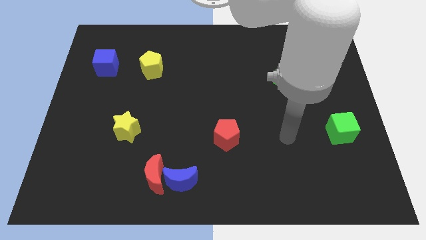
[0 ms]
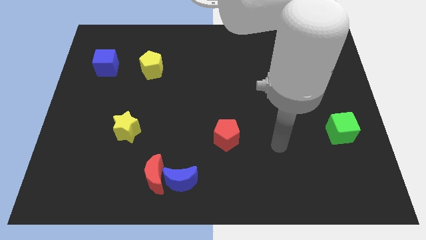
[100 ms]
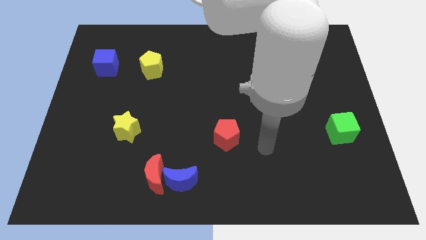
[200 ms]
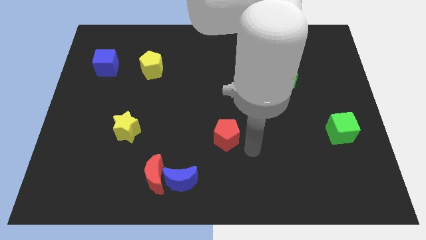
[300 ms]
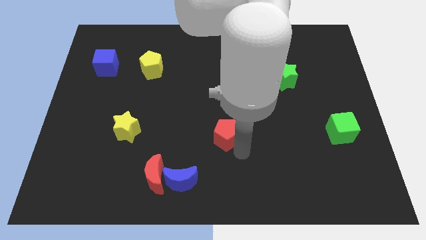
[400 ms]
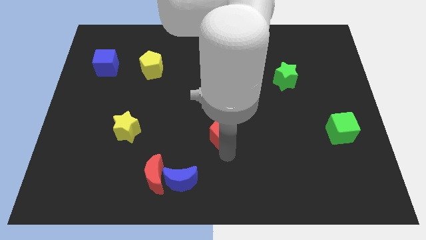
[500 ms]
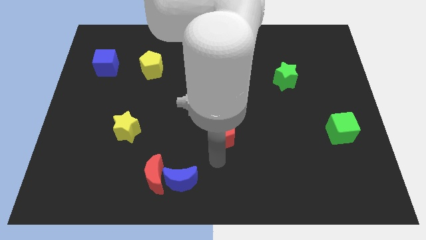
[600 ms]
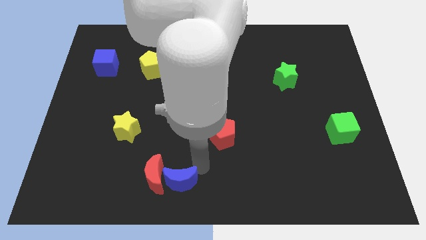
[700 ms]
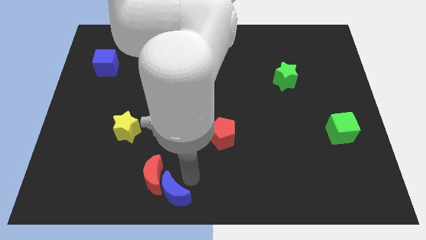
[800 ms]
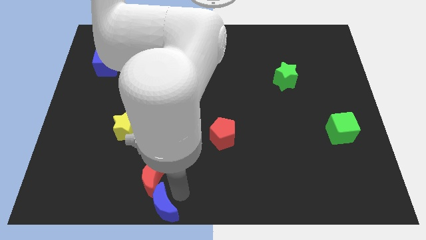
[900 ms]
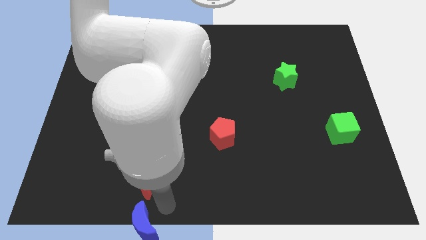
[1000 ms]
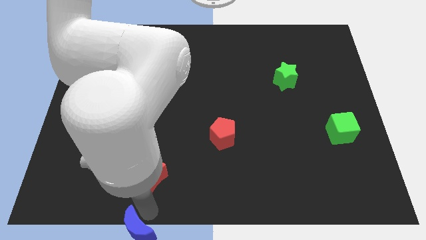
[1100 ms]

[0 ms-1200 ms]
separate the red moon from the blue moon

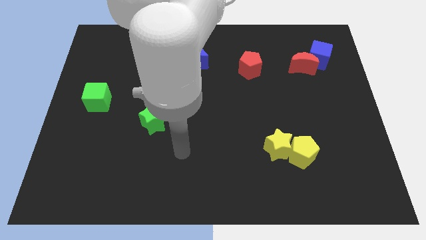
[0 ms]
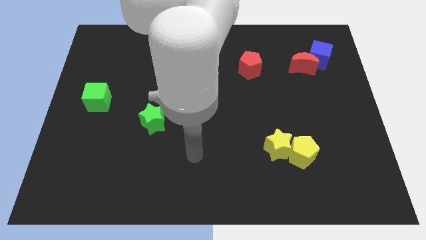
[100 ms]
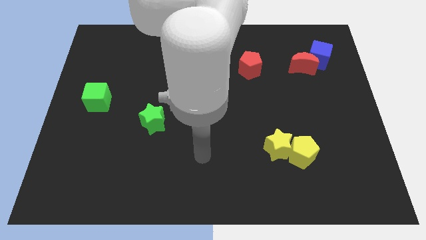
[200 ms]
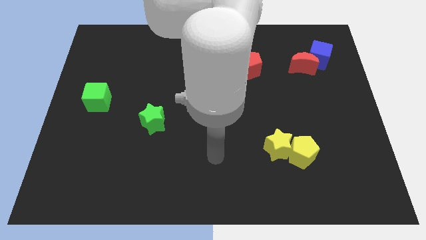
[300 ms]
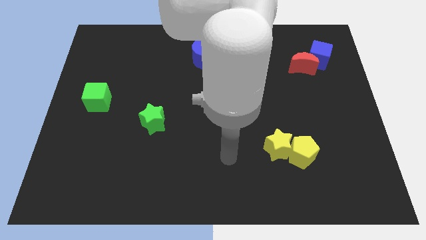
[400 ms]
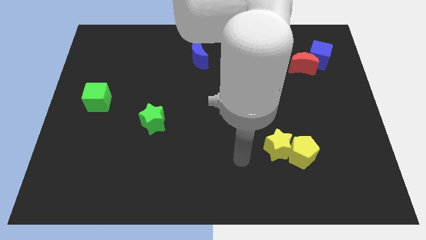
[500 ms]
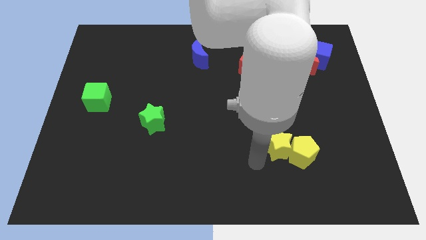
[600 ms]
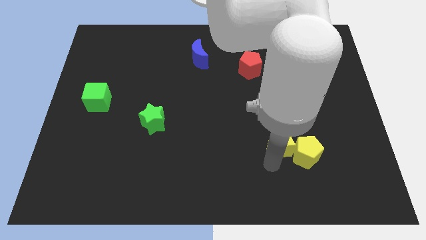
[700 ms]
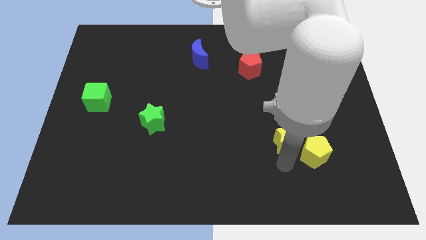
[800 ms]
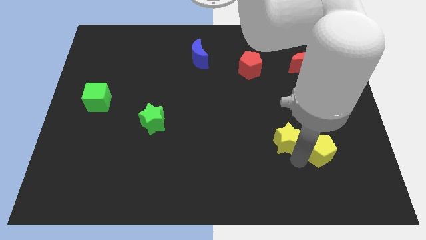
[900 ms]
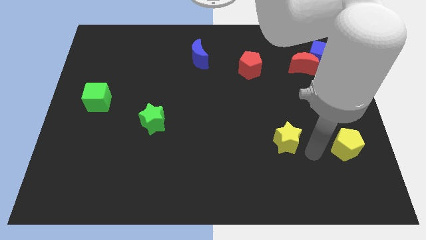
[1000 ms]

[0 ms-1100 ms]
pull the yellow star apart from the yellow pentagon

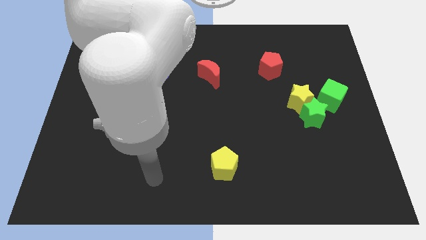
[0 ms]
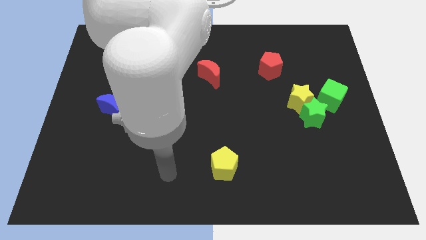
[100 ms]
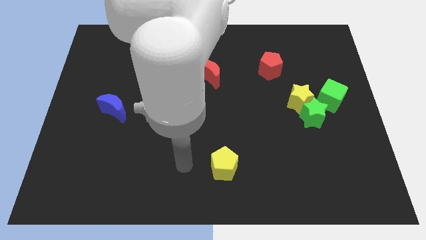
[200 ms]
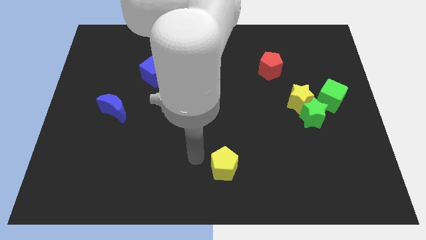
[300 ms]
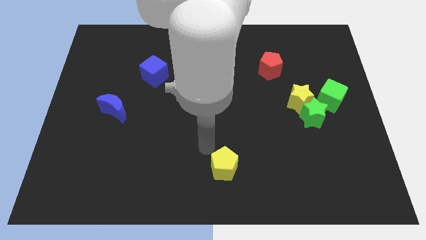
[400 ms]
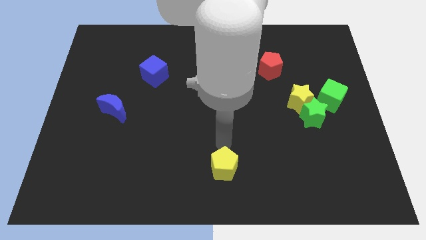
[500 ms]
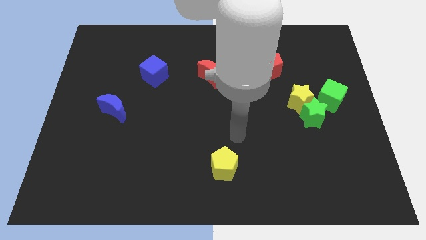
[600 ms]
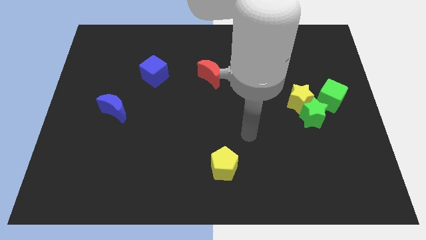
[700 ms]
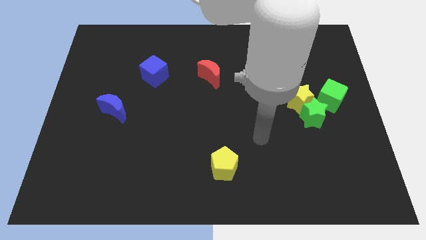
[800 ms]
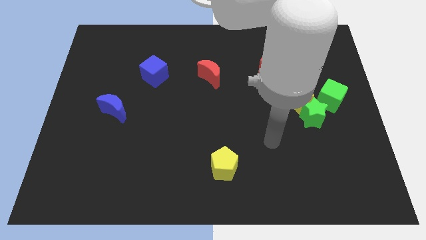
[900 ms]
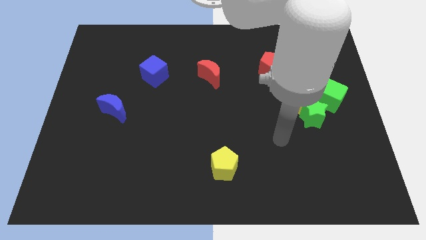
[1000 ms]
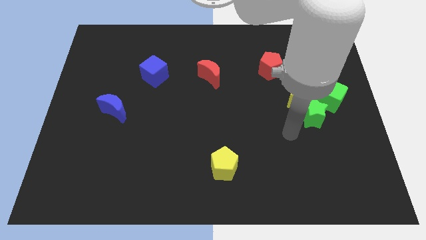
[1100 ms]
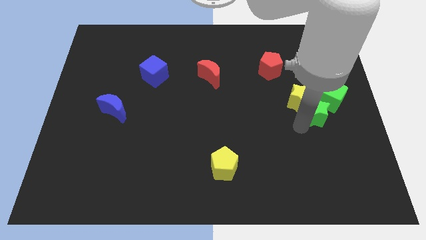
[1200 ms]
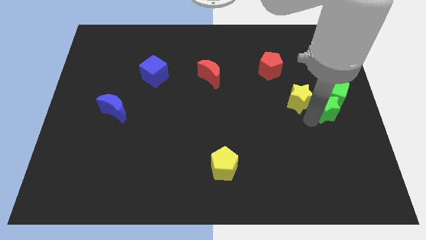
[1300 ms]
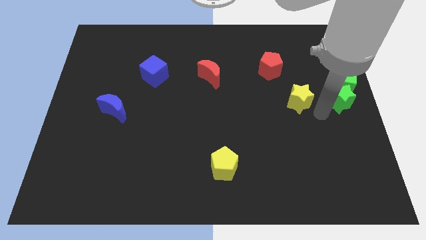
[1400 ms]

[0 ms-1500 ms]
pull the yellow star apart from the green star and green cube

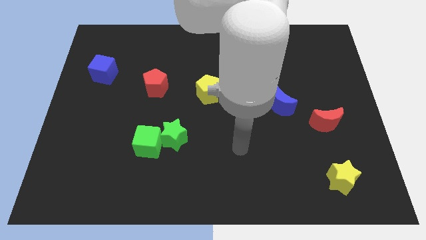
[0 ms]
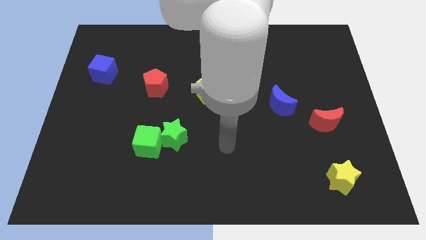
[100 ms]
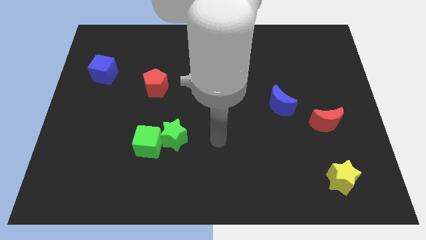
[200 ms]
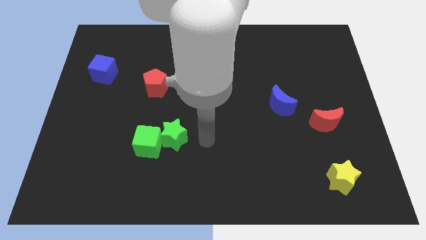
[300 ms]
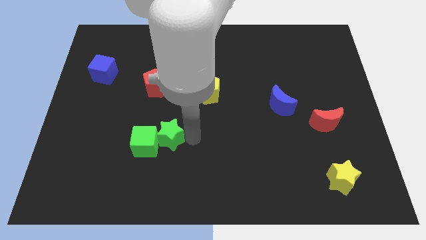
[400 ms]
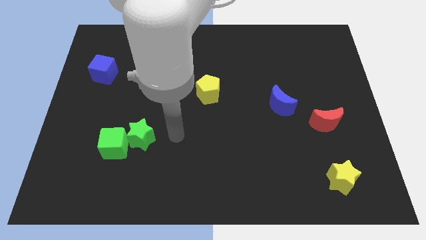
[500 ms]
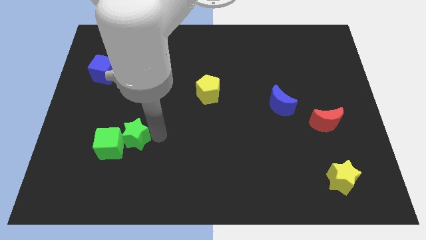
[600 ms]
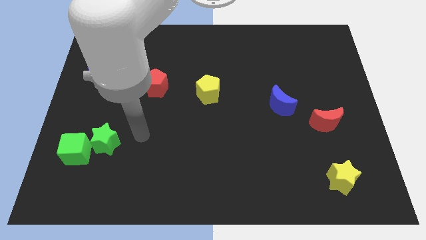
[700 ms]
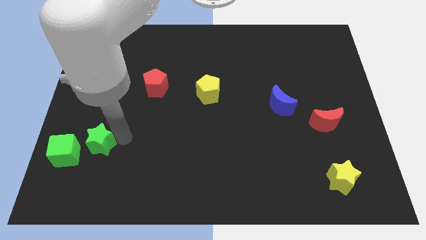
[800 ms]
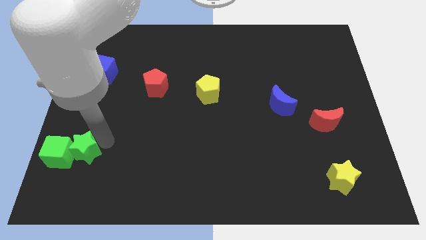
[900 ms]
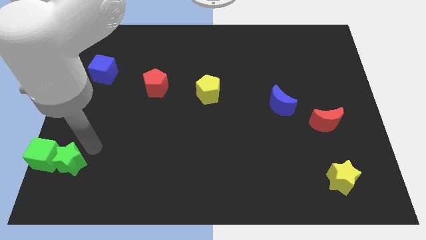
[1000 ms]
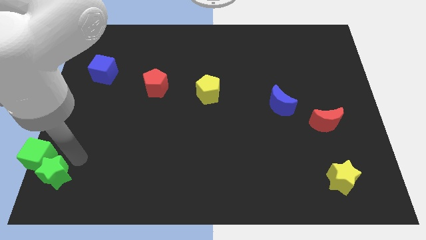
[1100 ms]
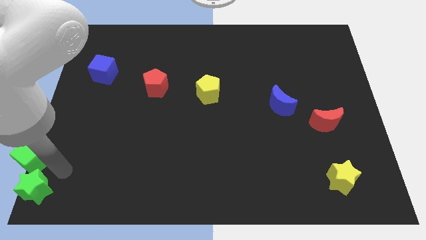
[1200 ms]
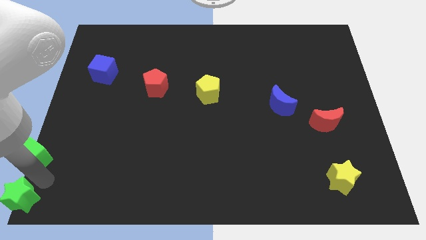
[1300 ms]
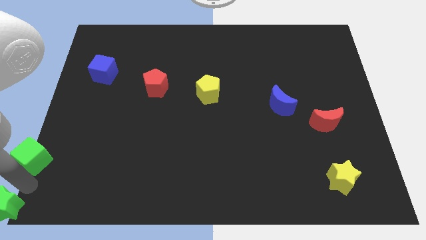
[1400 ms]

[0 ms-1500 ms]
separate the green cube from the green star

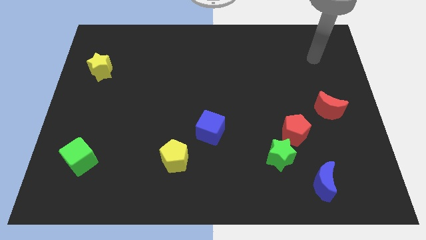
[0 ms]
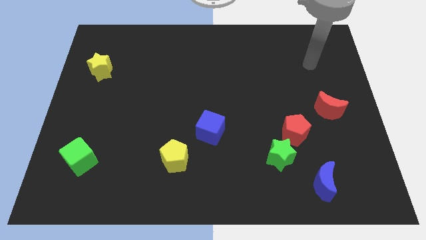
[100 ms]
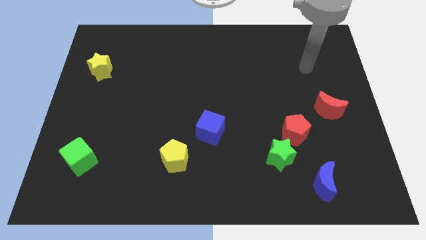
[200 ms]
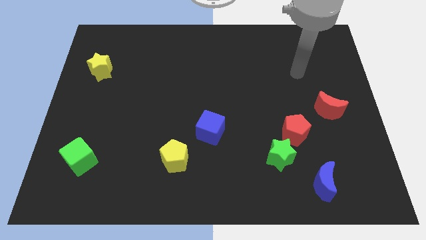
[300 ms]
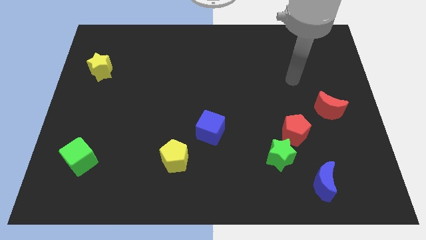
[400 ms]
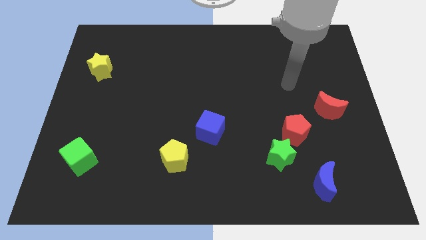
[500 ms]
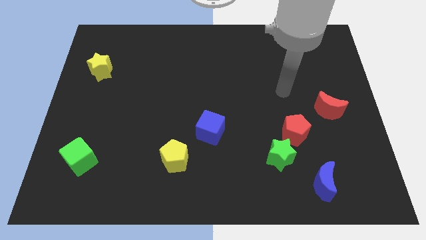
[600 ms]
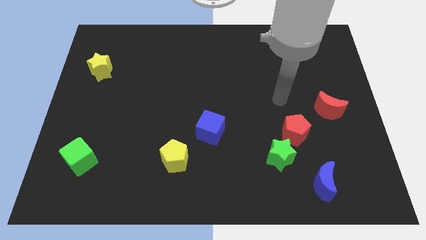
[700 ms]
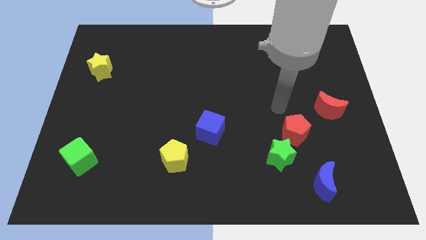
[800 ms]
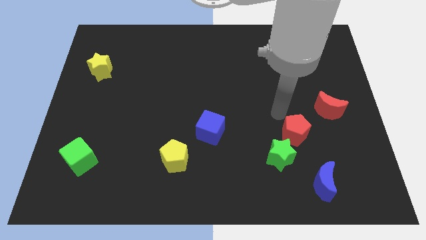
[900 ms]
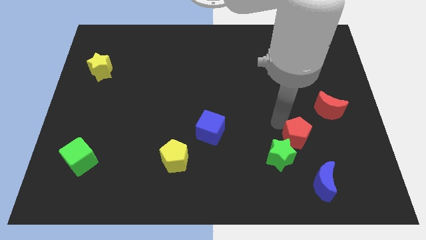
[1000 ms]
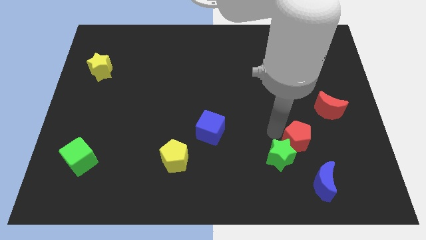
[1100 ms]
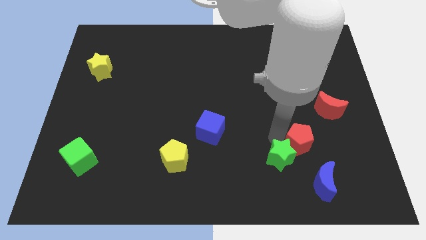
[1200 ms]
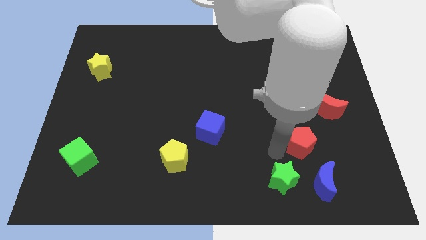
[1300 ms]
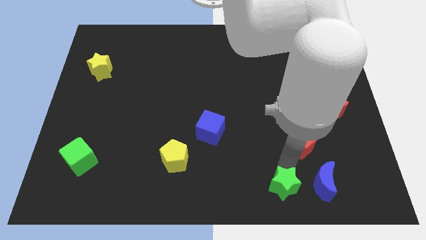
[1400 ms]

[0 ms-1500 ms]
separate the red pentagon from the green star

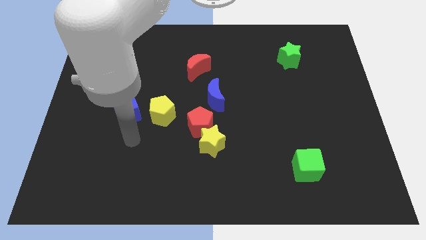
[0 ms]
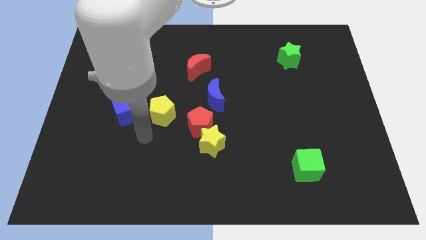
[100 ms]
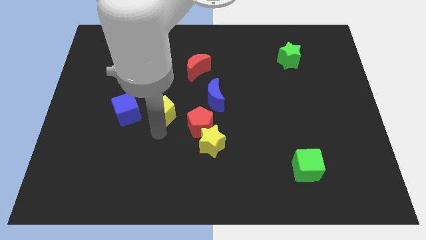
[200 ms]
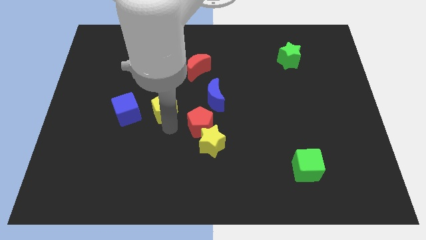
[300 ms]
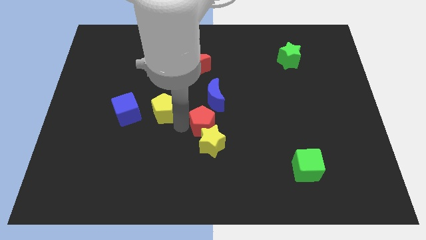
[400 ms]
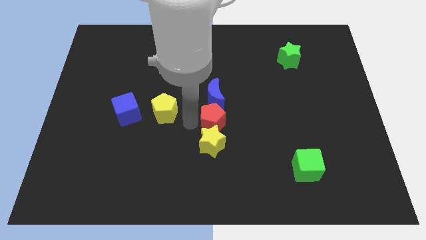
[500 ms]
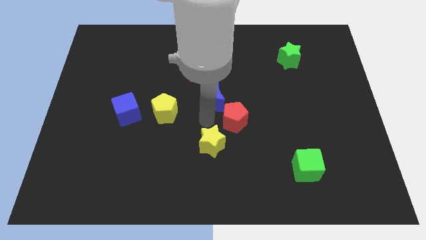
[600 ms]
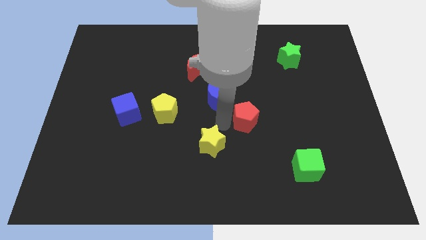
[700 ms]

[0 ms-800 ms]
separate the yellow star from the red pentagon

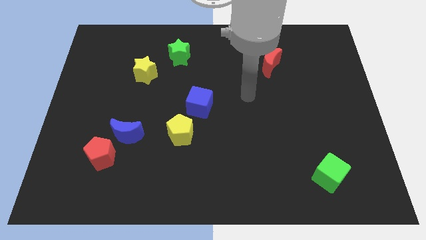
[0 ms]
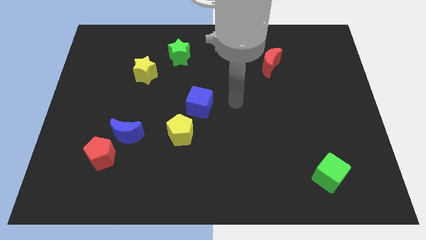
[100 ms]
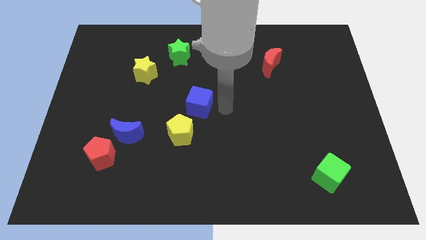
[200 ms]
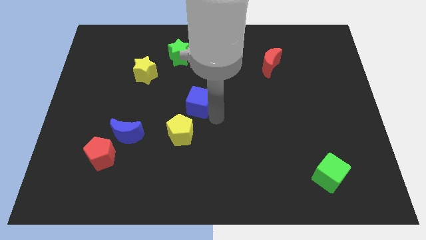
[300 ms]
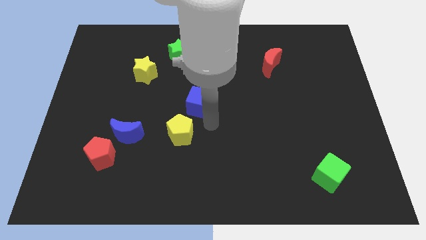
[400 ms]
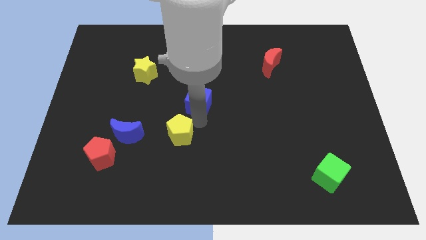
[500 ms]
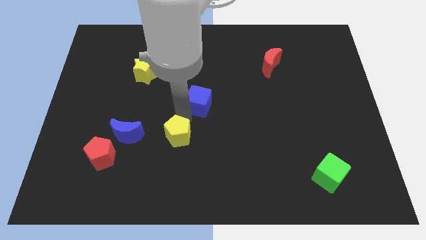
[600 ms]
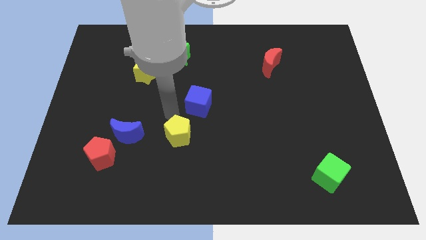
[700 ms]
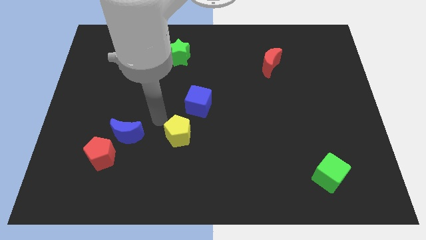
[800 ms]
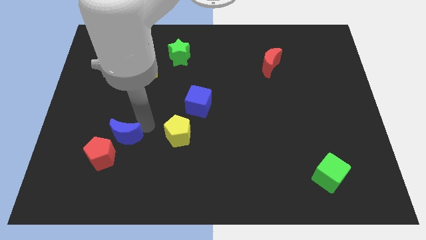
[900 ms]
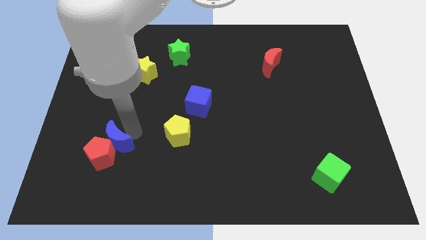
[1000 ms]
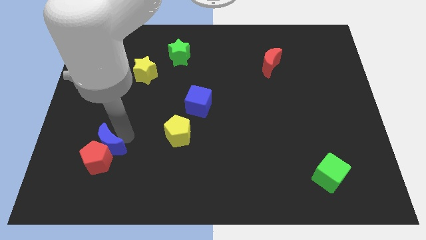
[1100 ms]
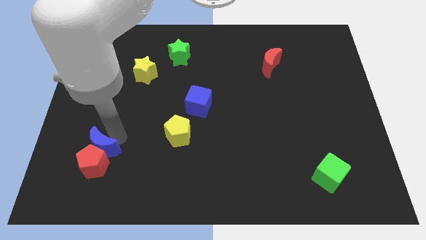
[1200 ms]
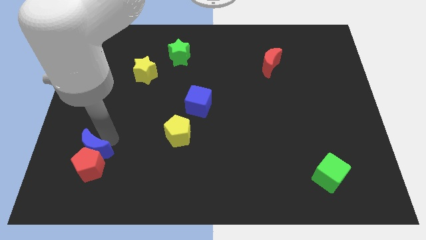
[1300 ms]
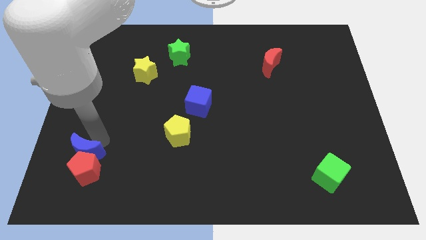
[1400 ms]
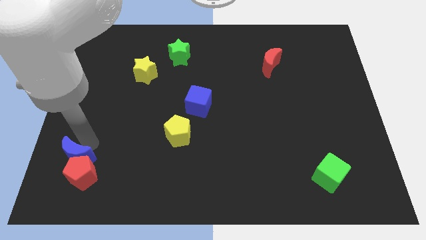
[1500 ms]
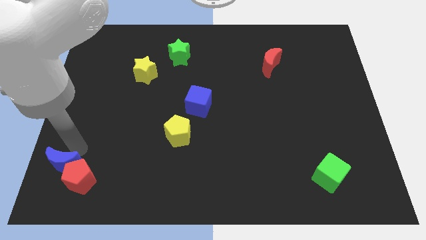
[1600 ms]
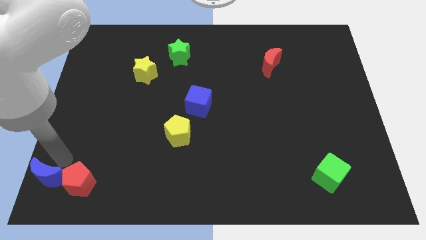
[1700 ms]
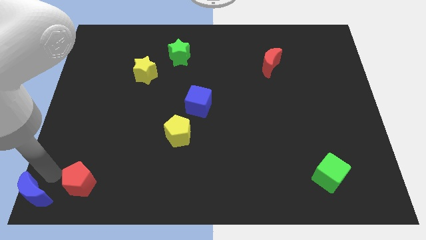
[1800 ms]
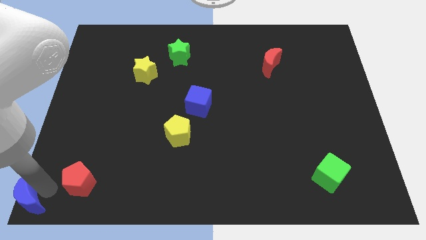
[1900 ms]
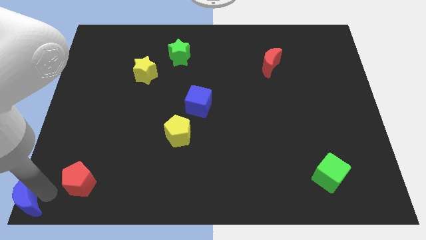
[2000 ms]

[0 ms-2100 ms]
pull the red pentagon apart from the blue moon
